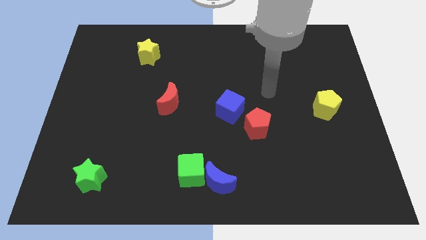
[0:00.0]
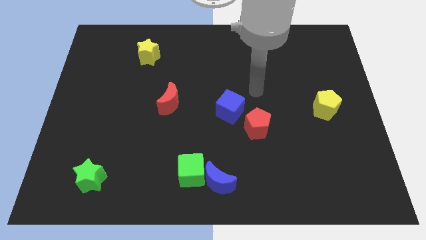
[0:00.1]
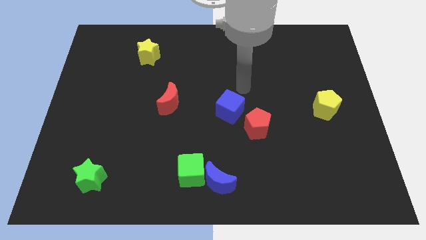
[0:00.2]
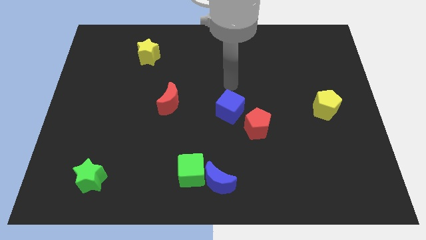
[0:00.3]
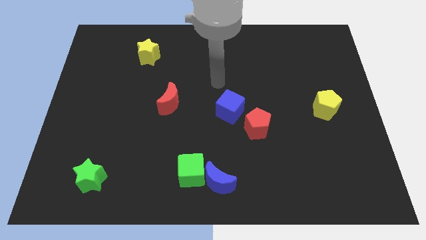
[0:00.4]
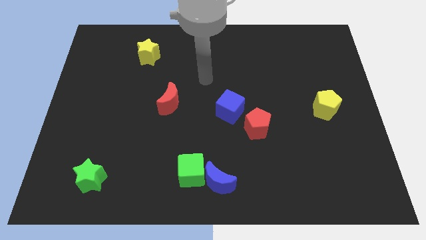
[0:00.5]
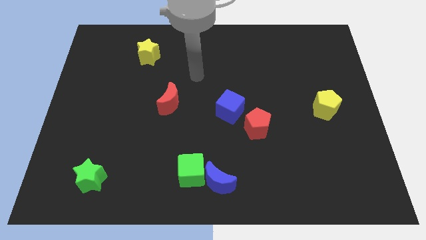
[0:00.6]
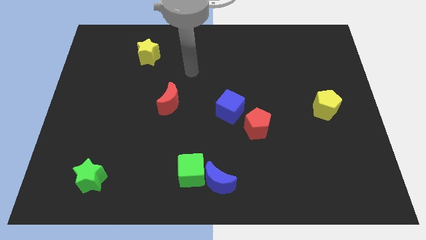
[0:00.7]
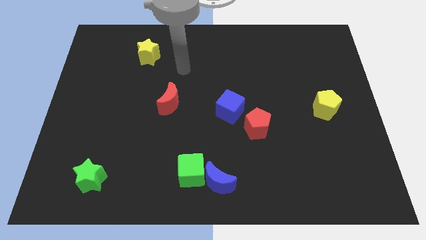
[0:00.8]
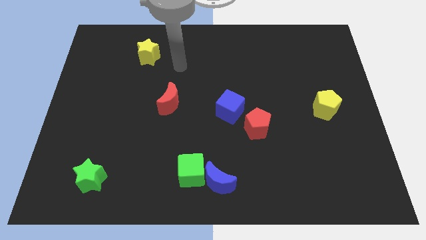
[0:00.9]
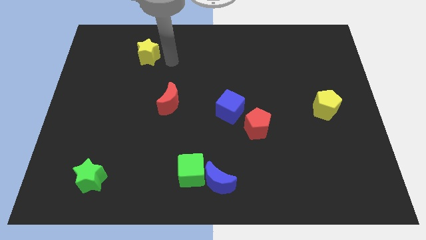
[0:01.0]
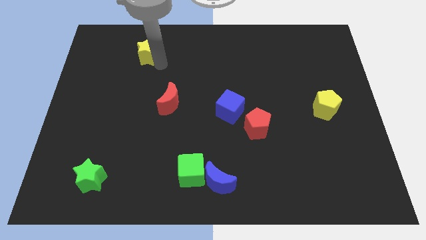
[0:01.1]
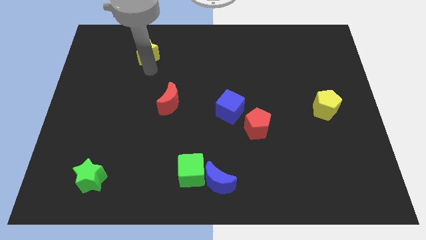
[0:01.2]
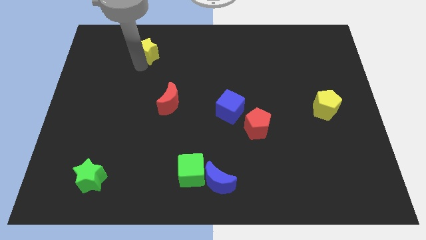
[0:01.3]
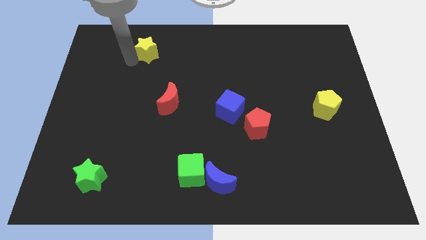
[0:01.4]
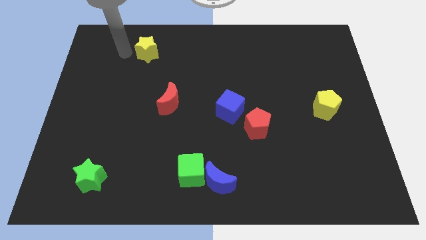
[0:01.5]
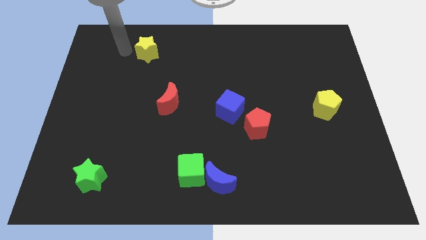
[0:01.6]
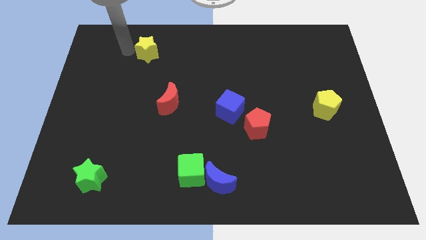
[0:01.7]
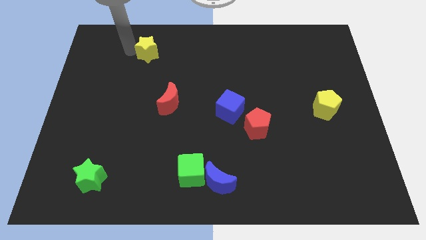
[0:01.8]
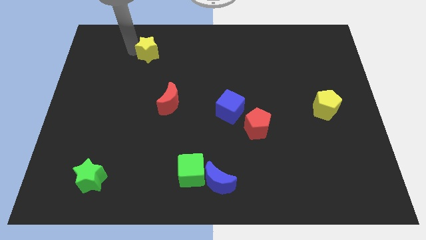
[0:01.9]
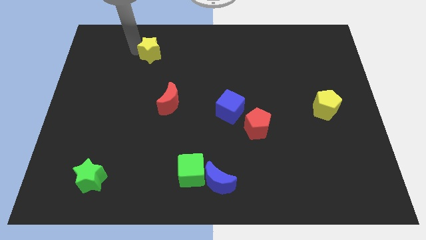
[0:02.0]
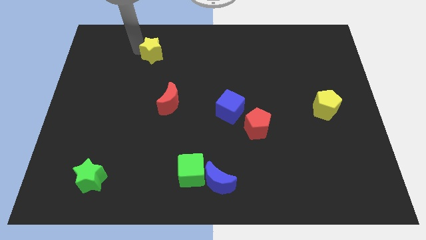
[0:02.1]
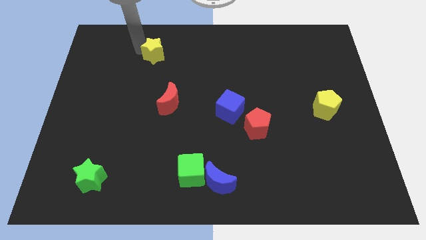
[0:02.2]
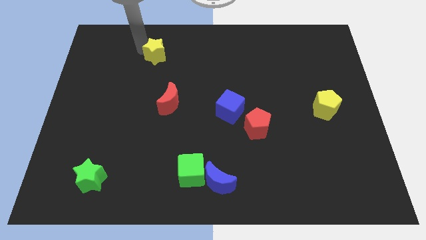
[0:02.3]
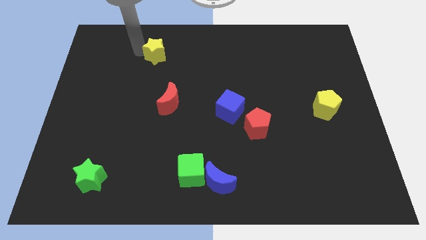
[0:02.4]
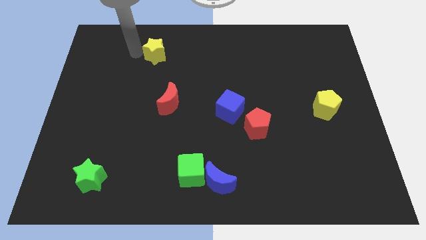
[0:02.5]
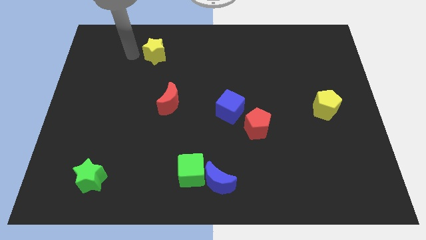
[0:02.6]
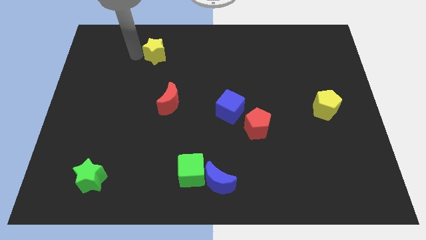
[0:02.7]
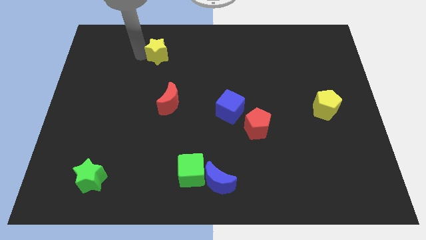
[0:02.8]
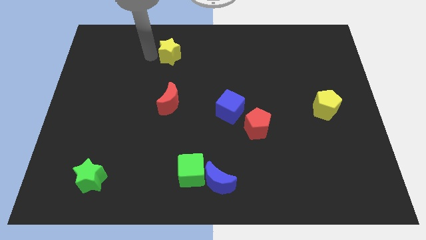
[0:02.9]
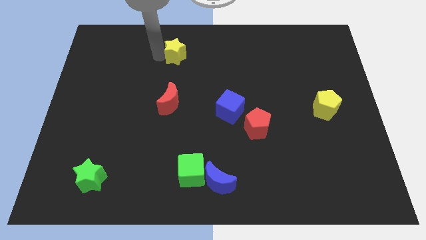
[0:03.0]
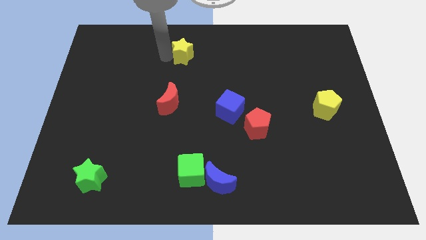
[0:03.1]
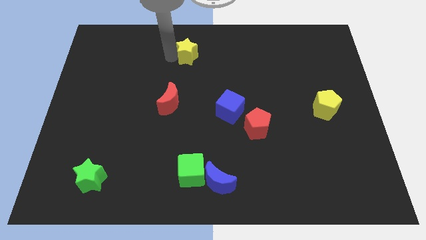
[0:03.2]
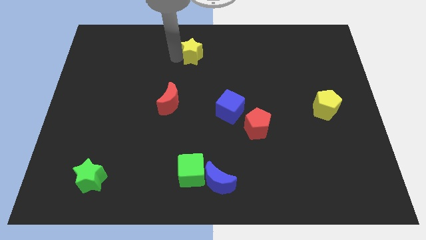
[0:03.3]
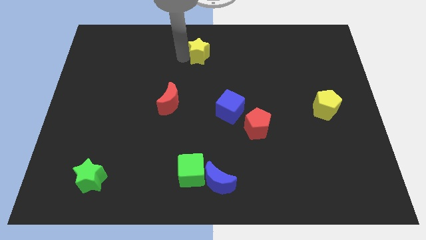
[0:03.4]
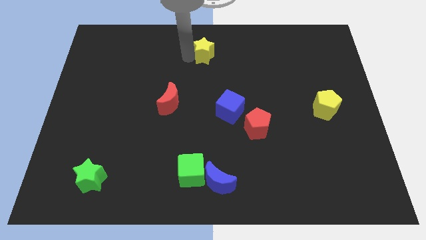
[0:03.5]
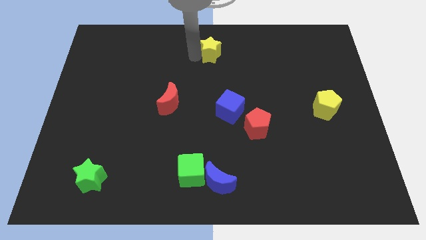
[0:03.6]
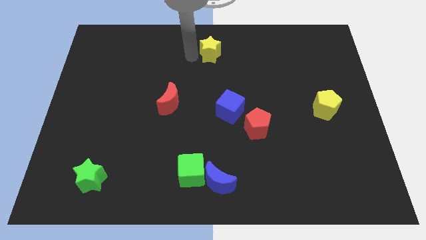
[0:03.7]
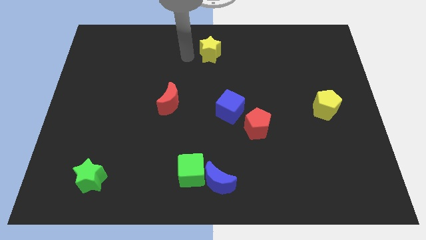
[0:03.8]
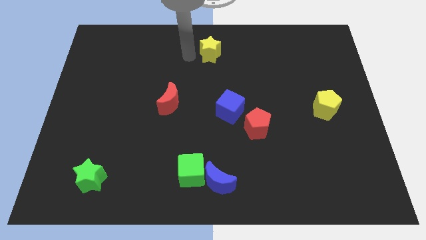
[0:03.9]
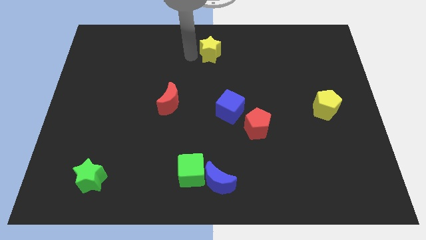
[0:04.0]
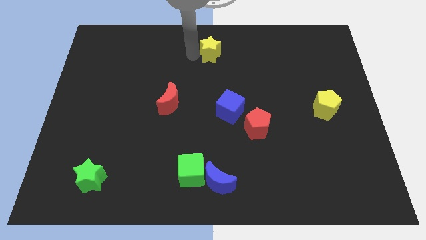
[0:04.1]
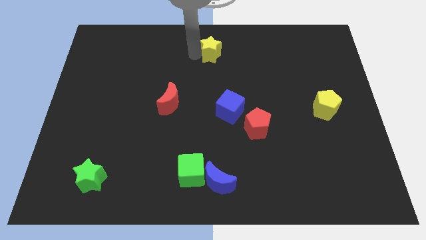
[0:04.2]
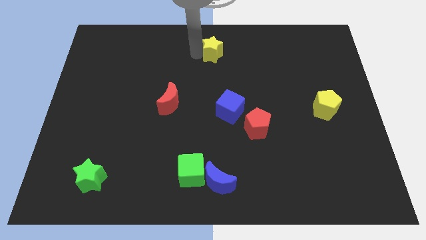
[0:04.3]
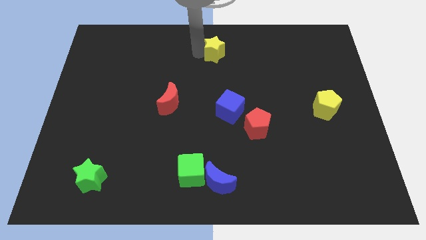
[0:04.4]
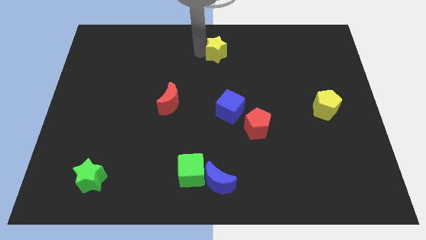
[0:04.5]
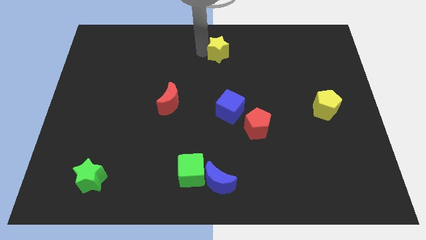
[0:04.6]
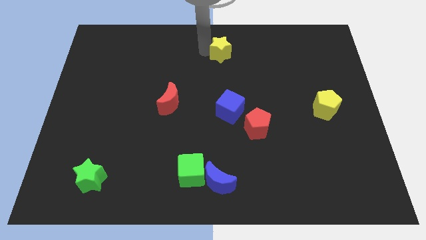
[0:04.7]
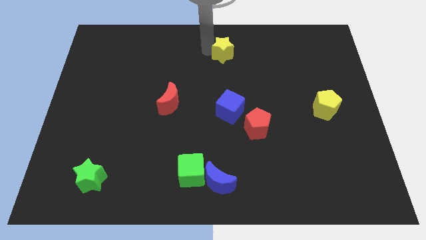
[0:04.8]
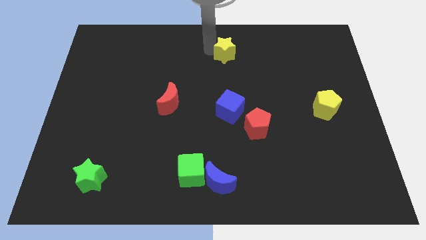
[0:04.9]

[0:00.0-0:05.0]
push the yellow star to the right

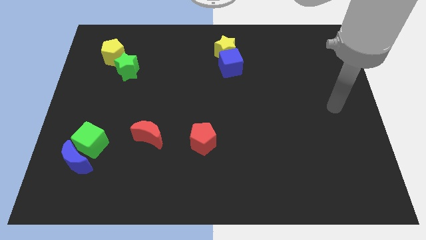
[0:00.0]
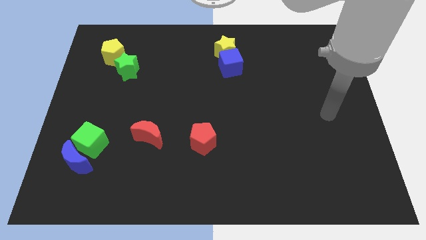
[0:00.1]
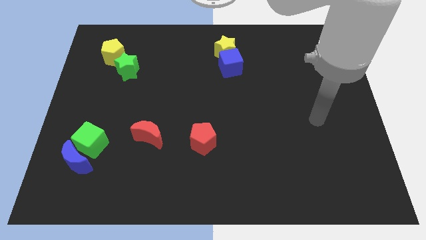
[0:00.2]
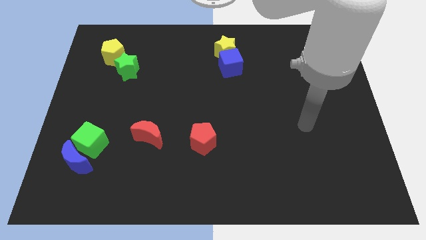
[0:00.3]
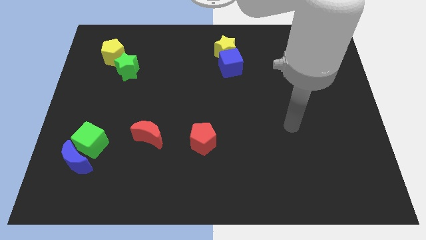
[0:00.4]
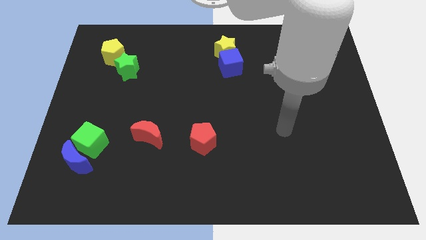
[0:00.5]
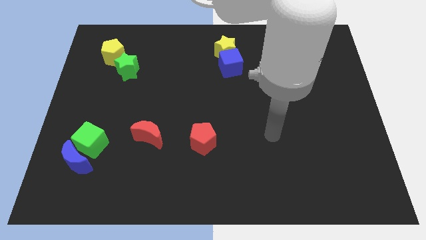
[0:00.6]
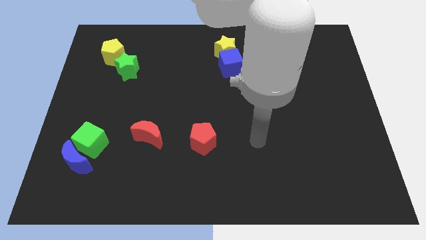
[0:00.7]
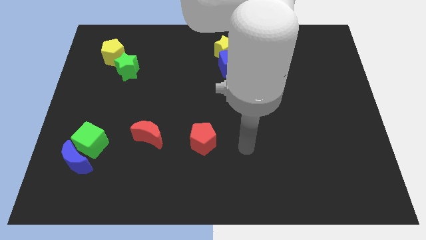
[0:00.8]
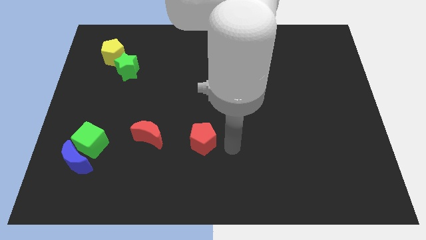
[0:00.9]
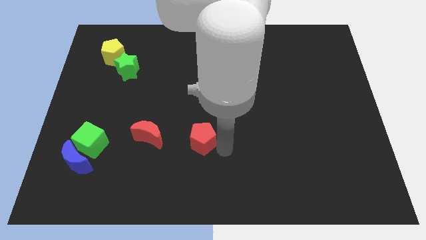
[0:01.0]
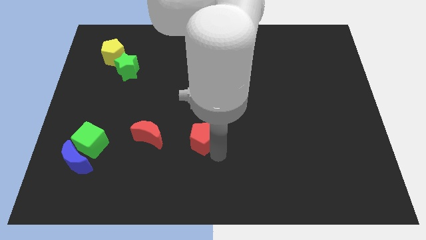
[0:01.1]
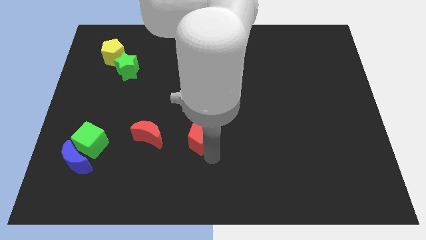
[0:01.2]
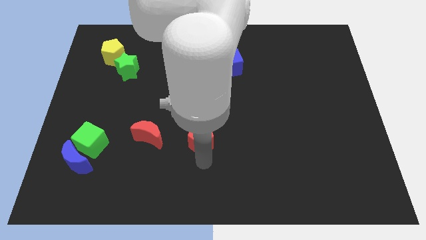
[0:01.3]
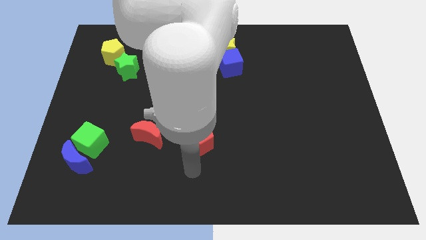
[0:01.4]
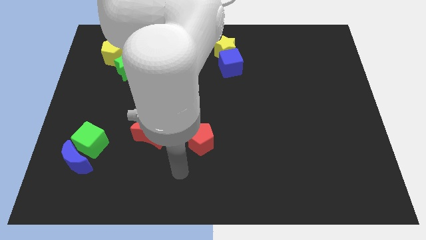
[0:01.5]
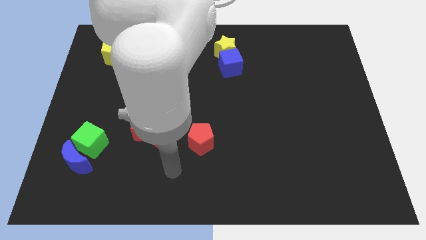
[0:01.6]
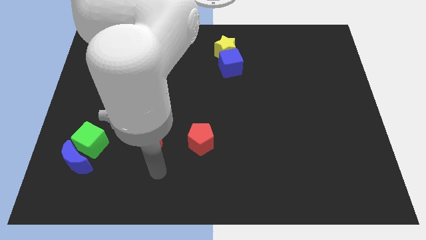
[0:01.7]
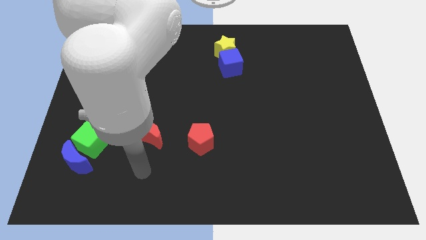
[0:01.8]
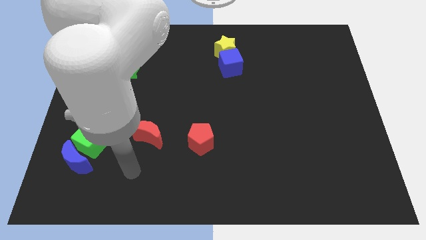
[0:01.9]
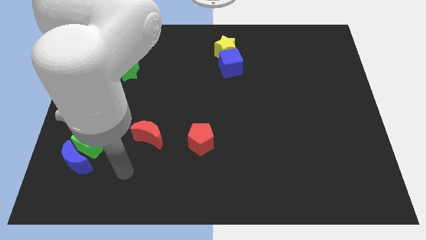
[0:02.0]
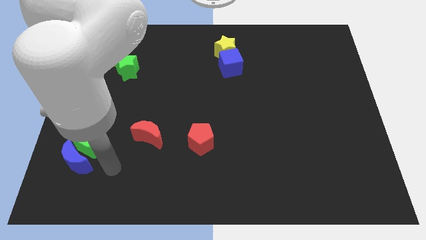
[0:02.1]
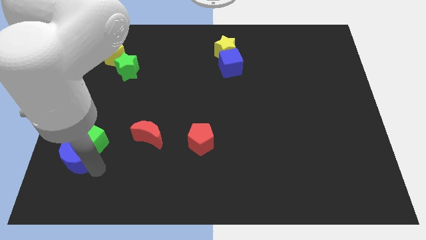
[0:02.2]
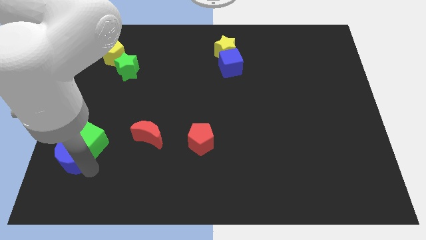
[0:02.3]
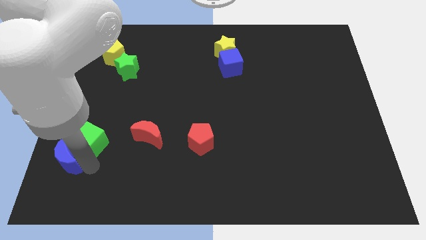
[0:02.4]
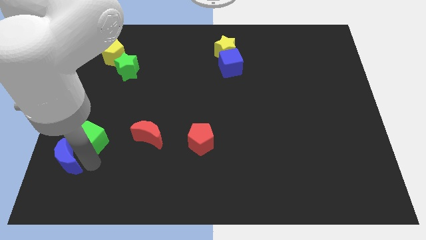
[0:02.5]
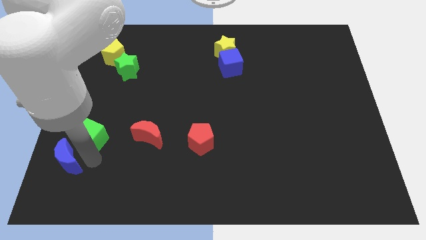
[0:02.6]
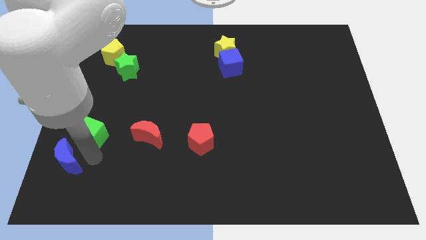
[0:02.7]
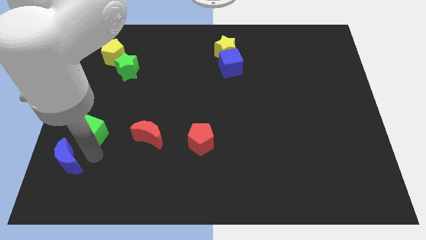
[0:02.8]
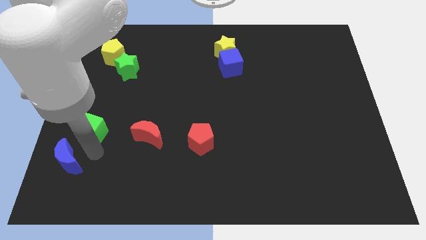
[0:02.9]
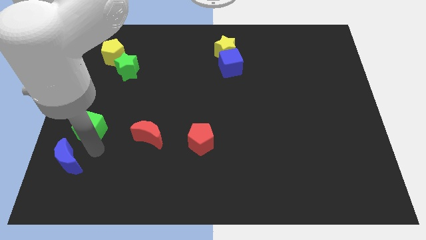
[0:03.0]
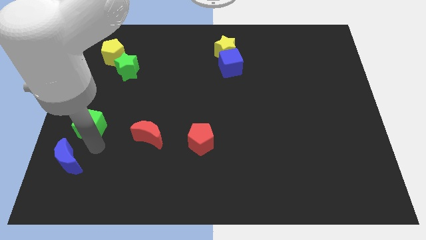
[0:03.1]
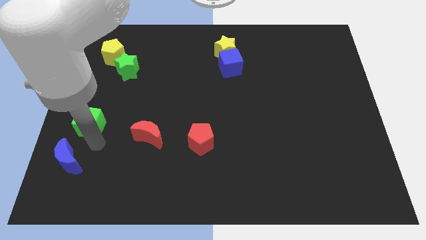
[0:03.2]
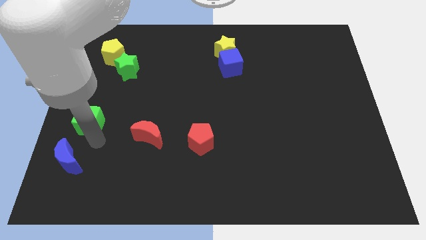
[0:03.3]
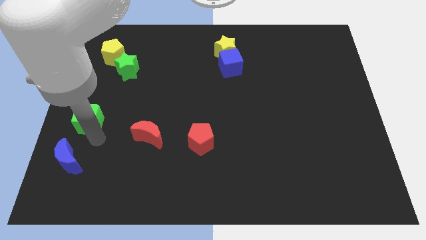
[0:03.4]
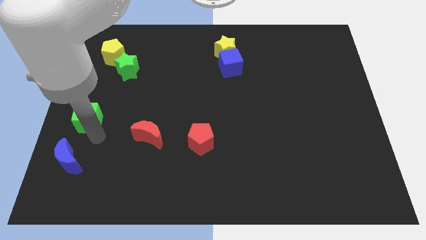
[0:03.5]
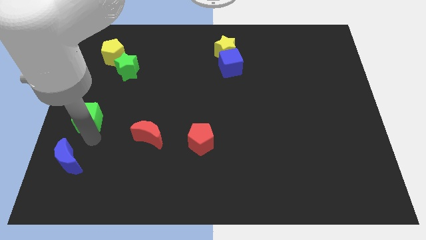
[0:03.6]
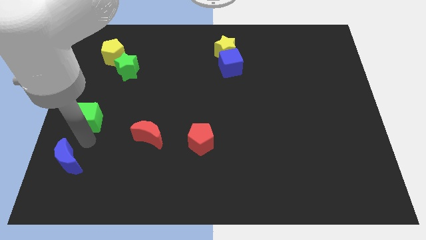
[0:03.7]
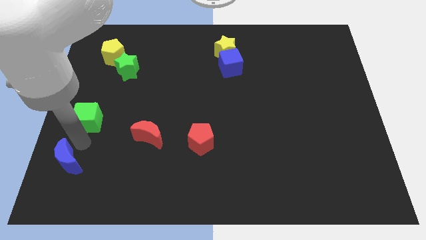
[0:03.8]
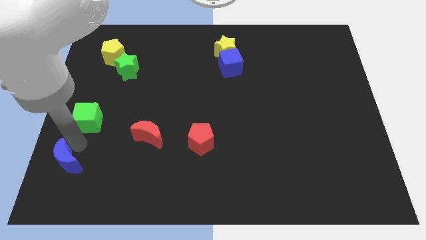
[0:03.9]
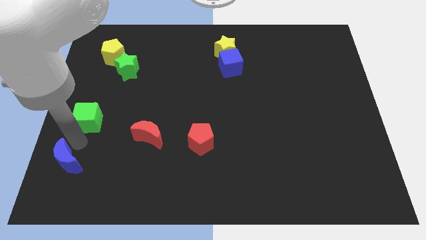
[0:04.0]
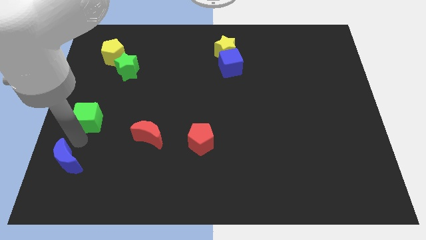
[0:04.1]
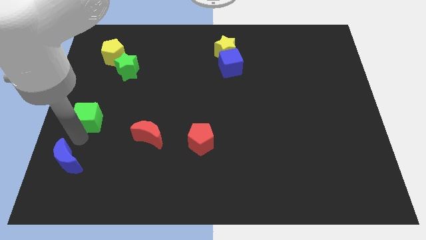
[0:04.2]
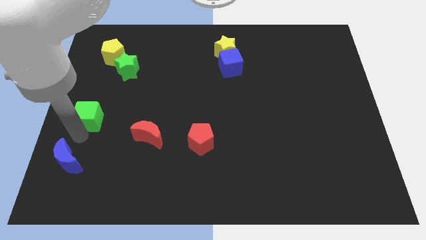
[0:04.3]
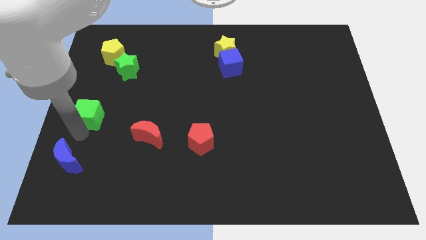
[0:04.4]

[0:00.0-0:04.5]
slightly move the green cube upwards
